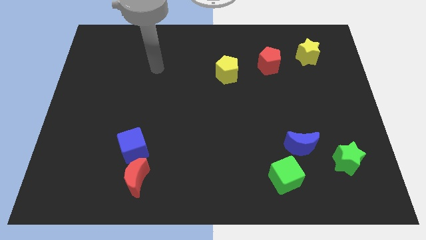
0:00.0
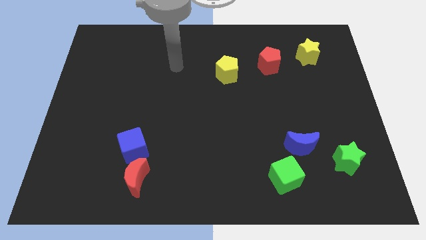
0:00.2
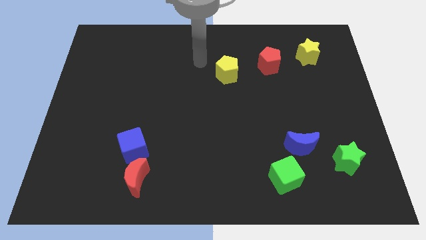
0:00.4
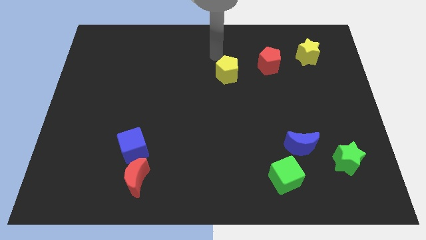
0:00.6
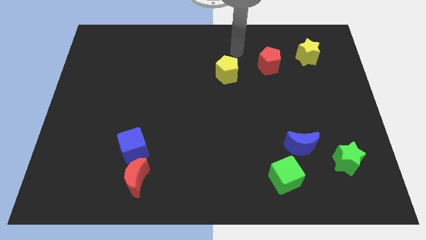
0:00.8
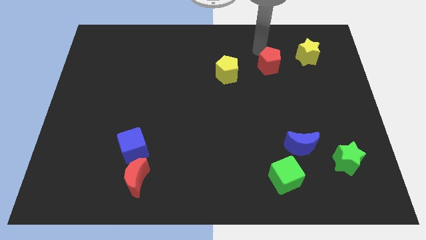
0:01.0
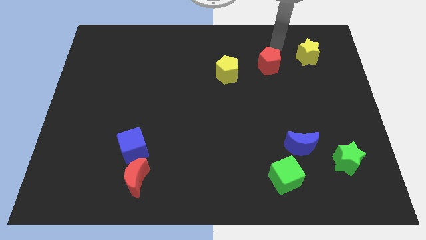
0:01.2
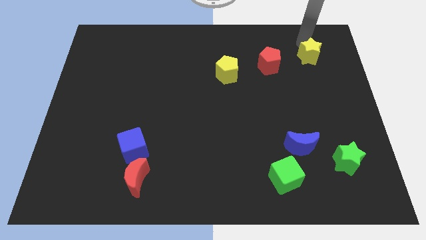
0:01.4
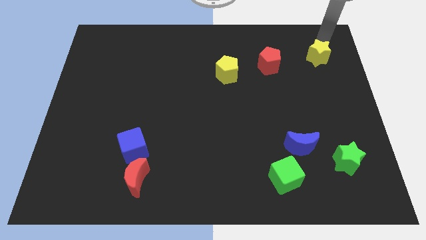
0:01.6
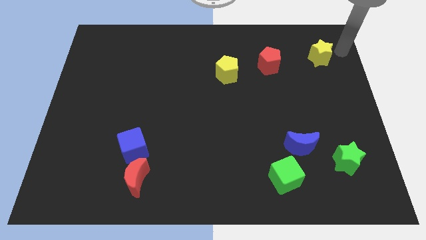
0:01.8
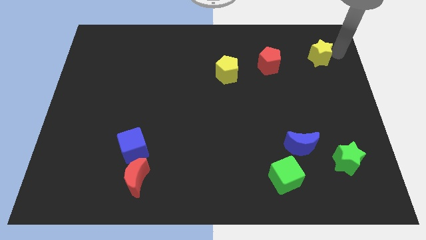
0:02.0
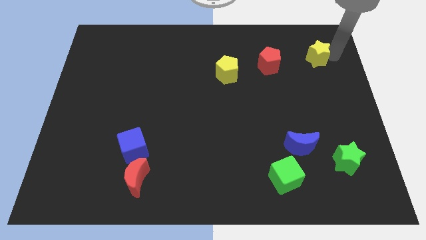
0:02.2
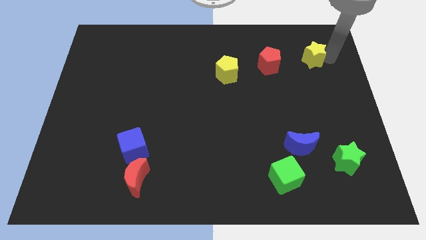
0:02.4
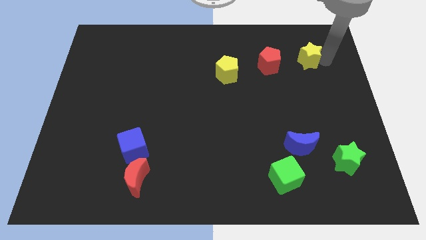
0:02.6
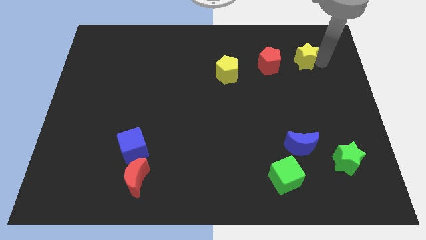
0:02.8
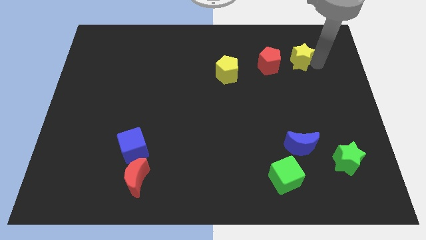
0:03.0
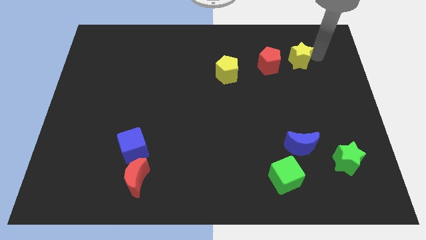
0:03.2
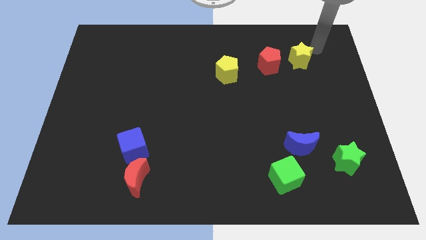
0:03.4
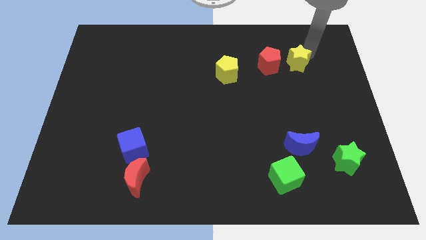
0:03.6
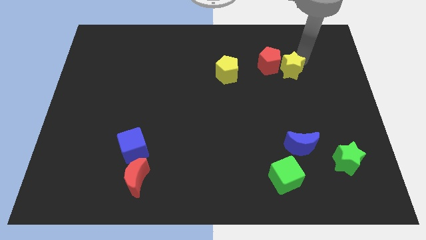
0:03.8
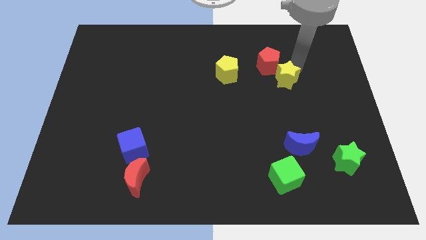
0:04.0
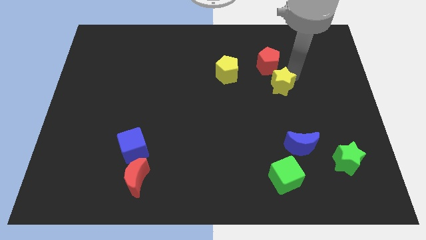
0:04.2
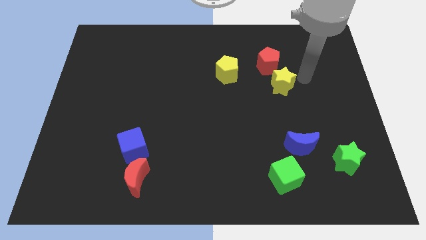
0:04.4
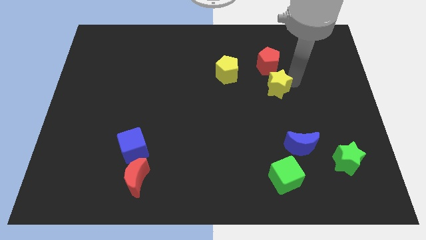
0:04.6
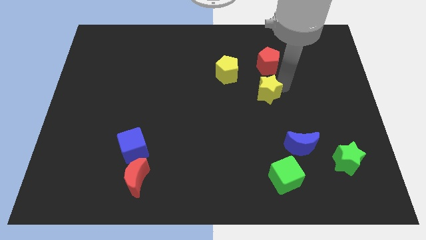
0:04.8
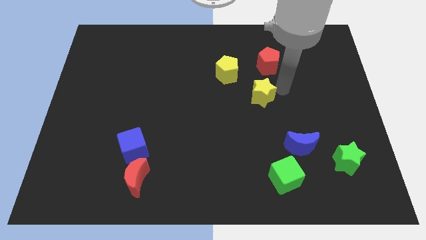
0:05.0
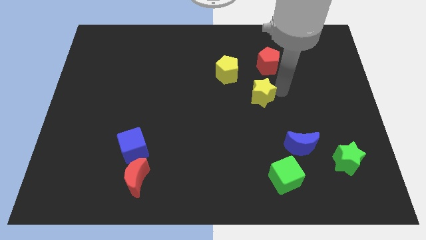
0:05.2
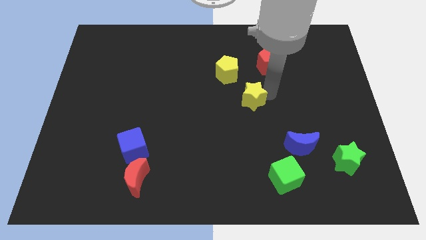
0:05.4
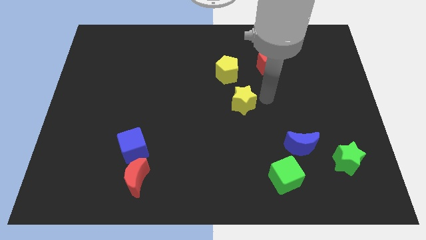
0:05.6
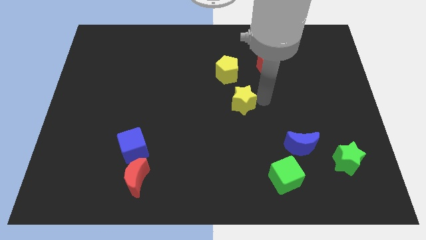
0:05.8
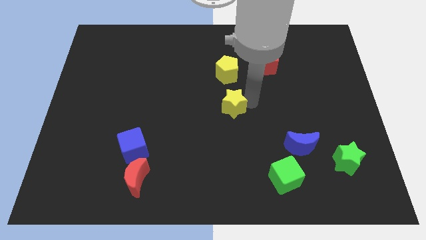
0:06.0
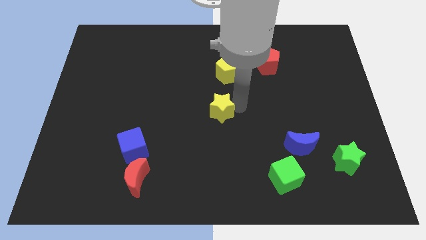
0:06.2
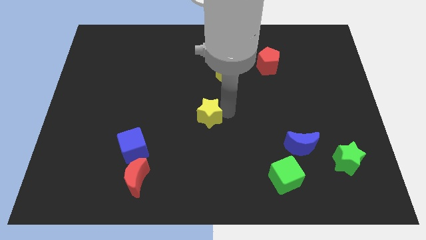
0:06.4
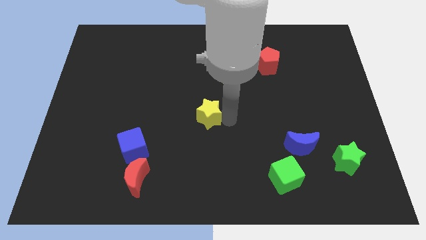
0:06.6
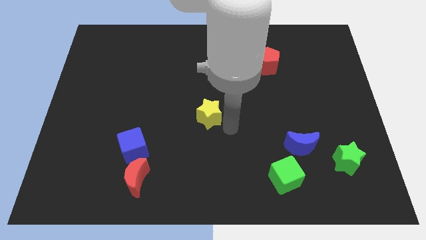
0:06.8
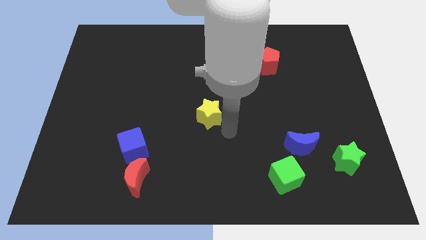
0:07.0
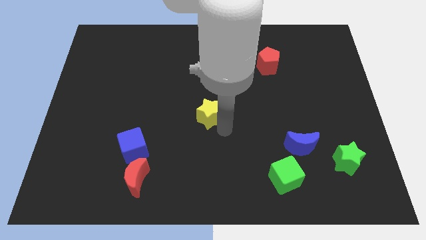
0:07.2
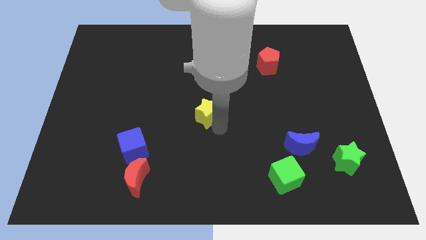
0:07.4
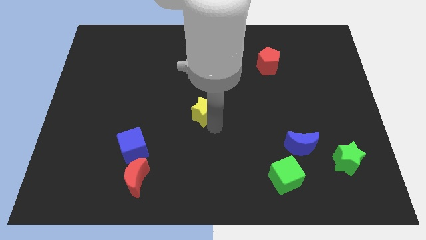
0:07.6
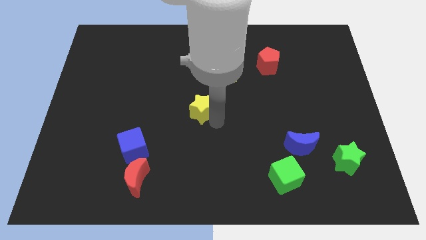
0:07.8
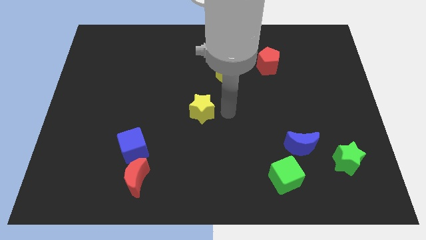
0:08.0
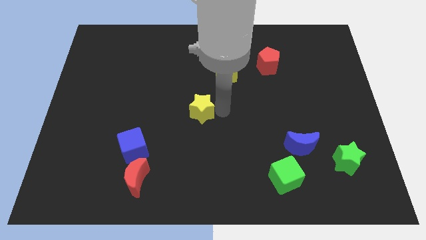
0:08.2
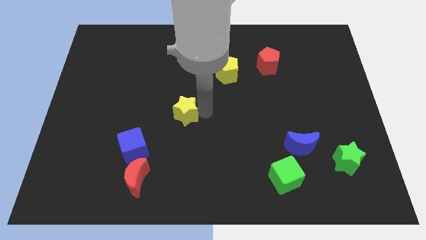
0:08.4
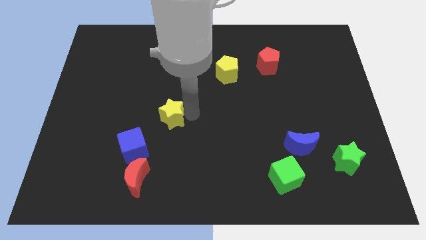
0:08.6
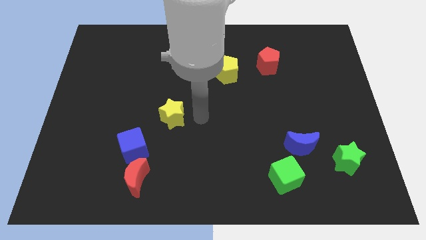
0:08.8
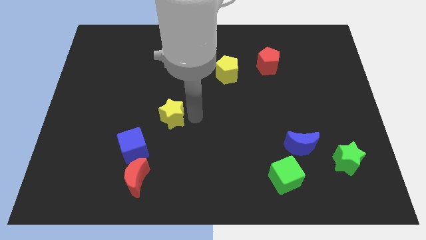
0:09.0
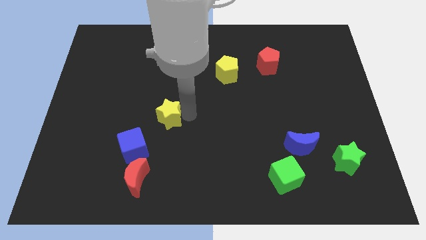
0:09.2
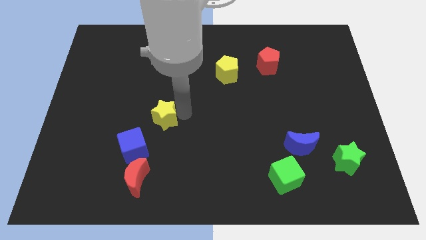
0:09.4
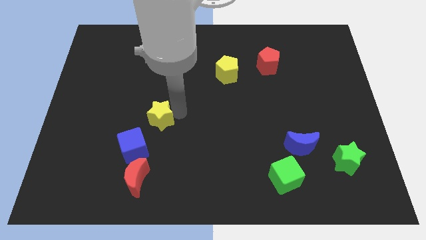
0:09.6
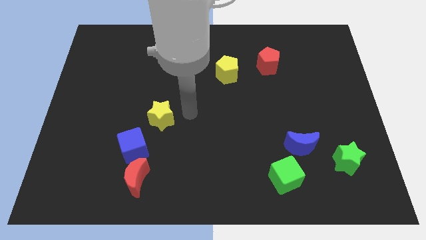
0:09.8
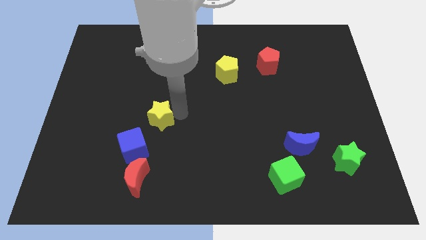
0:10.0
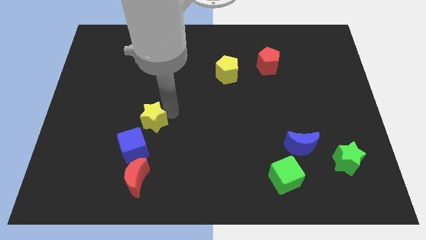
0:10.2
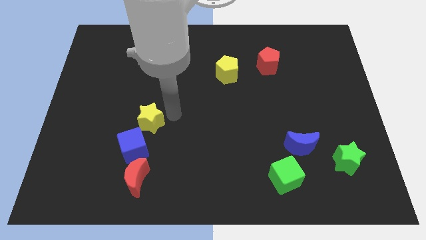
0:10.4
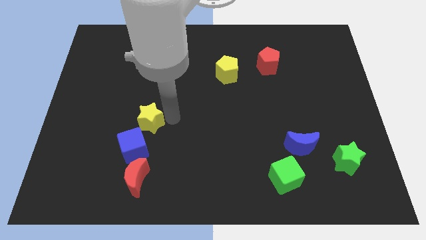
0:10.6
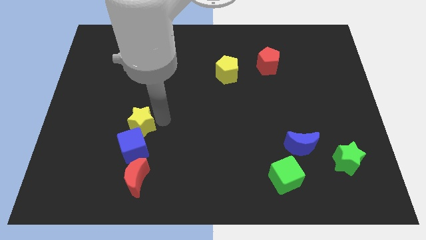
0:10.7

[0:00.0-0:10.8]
put the yellow star to the top left of the blue cube

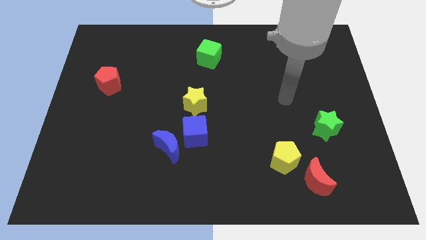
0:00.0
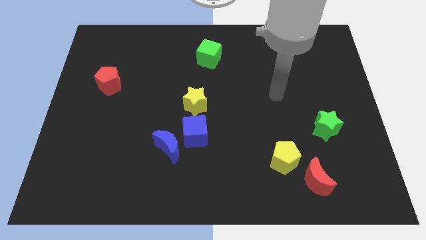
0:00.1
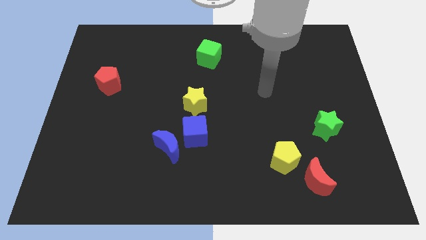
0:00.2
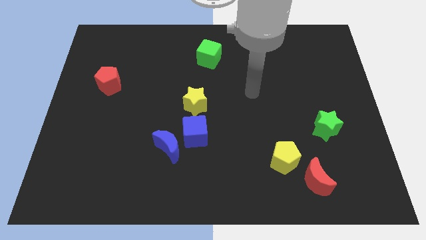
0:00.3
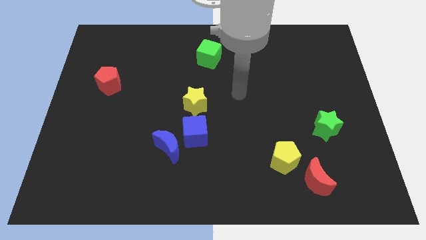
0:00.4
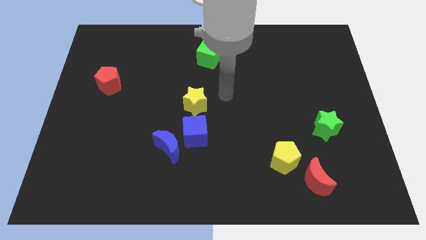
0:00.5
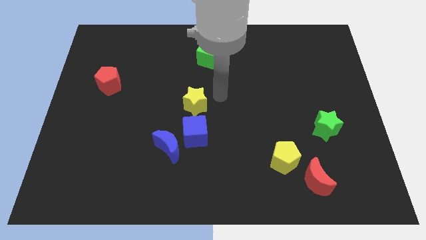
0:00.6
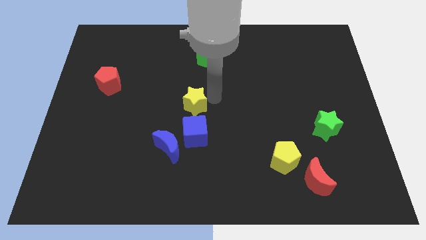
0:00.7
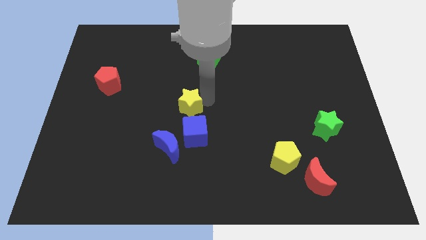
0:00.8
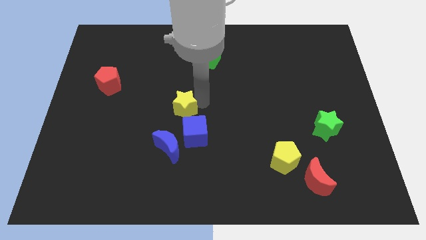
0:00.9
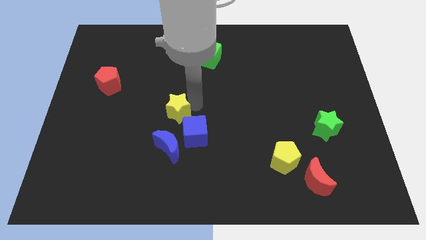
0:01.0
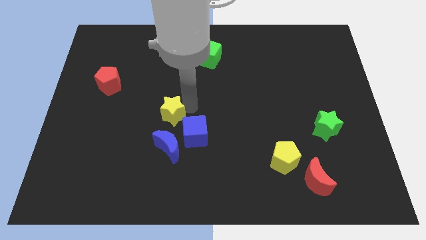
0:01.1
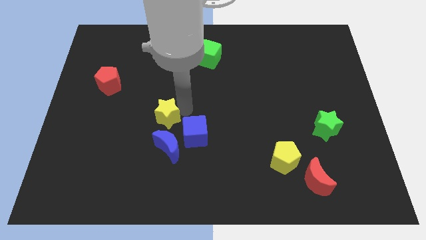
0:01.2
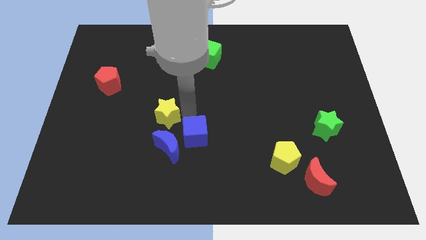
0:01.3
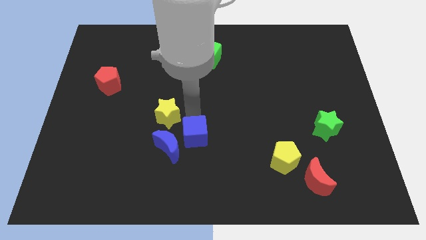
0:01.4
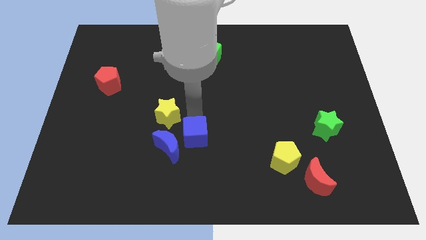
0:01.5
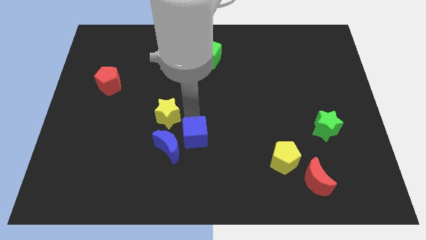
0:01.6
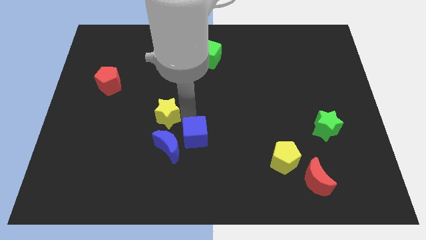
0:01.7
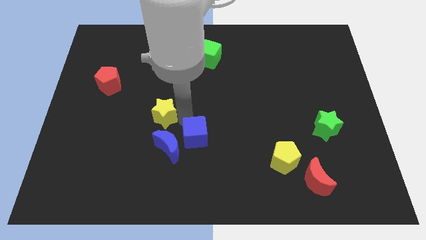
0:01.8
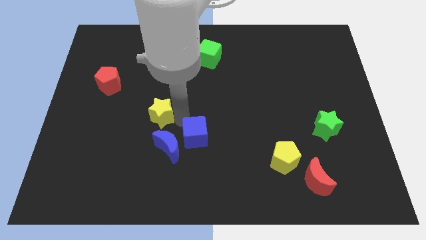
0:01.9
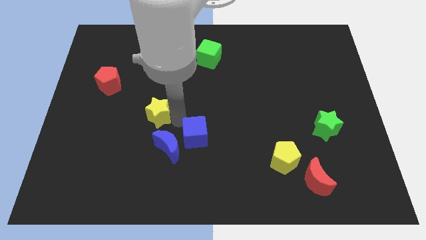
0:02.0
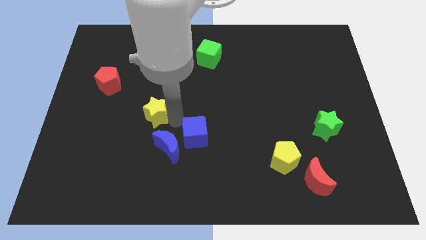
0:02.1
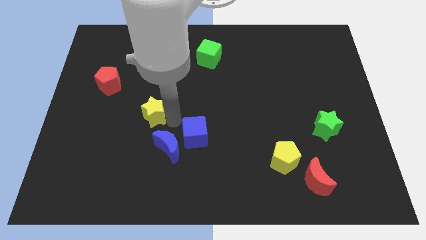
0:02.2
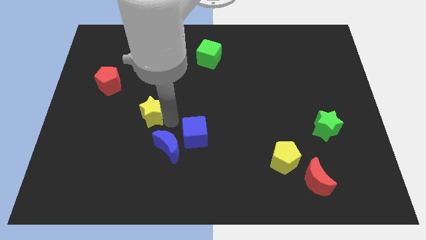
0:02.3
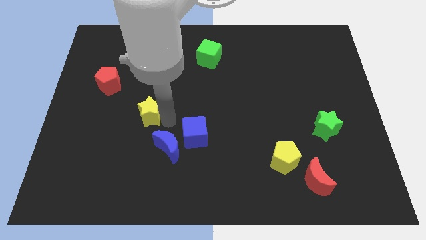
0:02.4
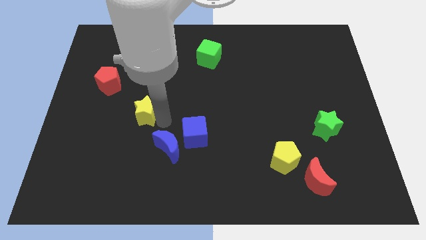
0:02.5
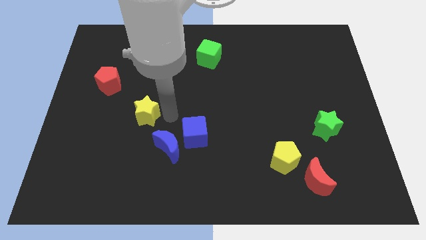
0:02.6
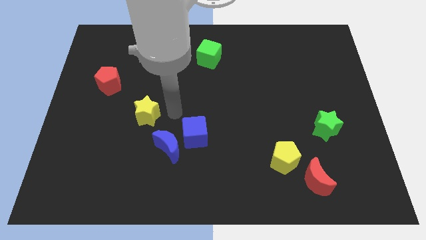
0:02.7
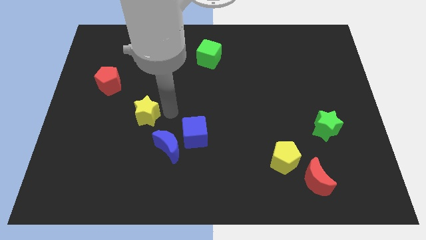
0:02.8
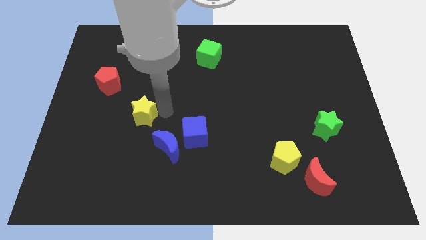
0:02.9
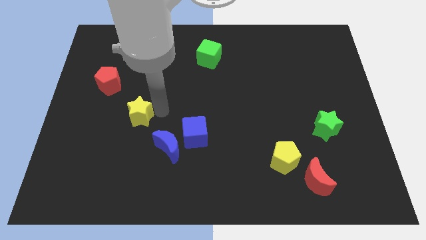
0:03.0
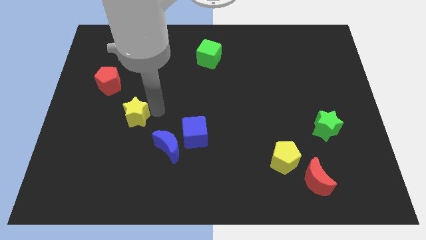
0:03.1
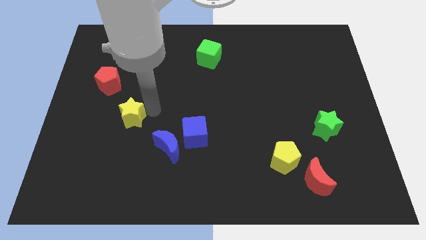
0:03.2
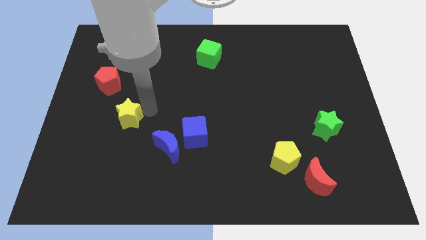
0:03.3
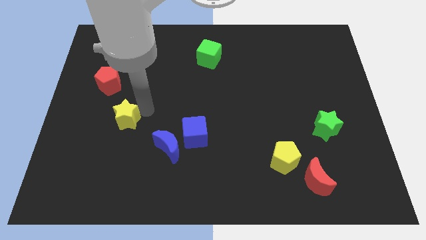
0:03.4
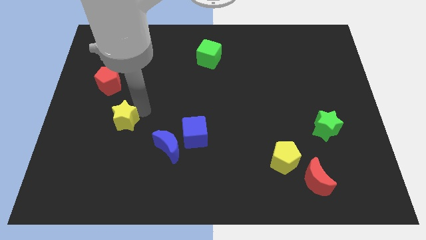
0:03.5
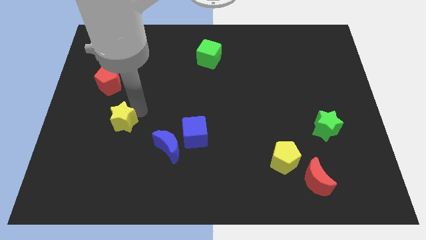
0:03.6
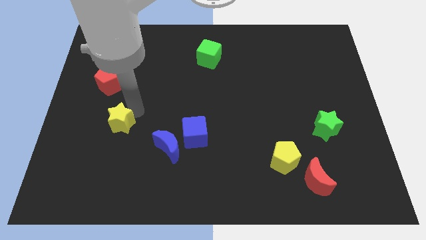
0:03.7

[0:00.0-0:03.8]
put the yellow star below the red pentagon
